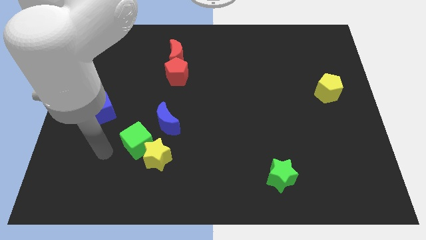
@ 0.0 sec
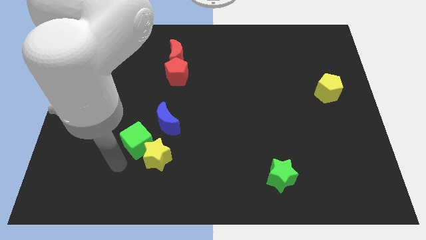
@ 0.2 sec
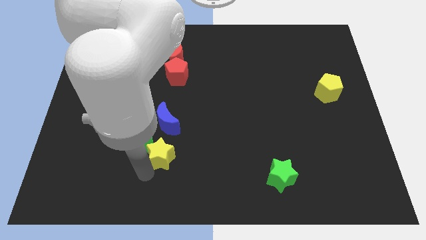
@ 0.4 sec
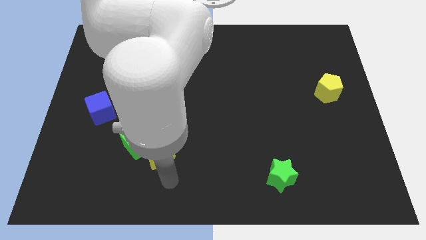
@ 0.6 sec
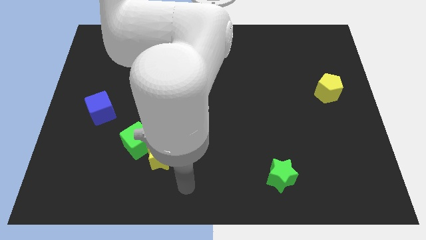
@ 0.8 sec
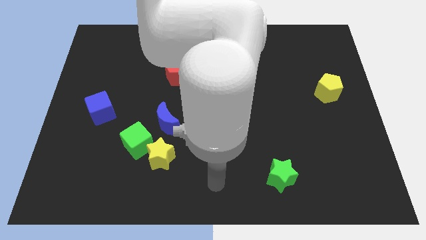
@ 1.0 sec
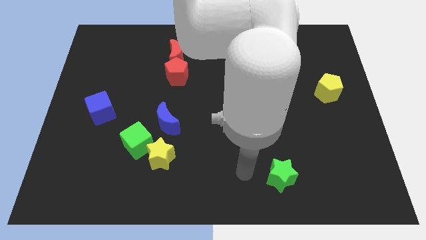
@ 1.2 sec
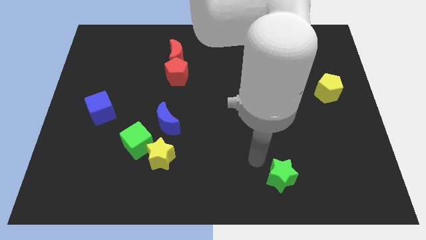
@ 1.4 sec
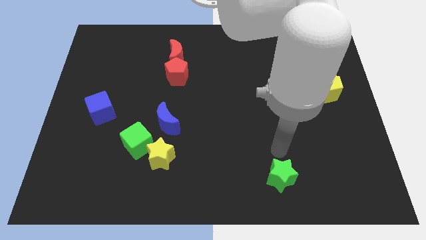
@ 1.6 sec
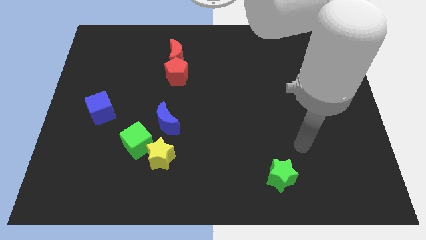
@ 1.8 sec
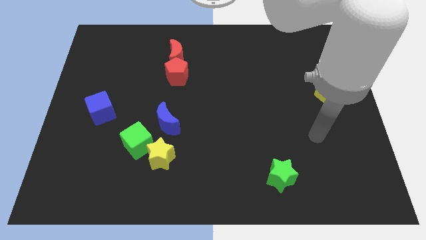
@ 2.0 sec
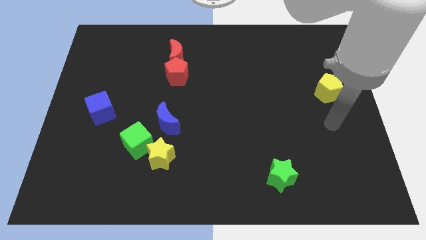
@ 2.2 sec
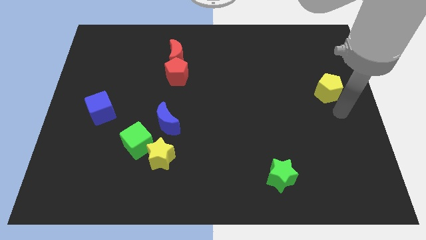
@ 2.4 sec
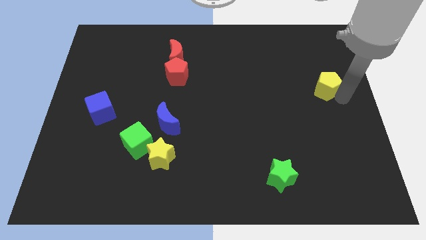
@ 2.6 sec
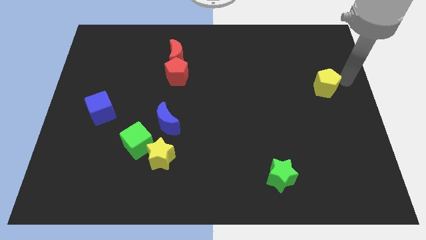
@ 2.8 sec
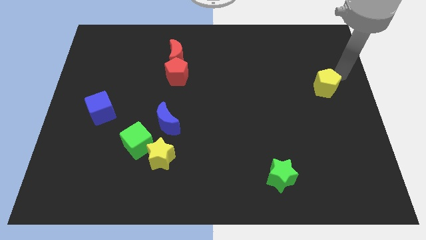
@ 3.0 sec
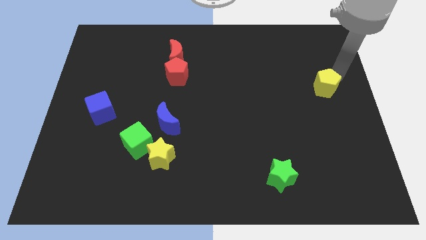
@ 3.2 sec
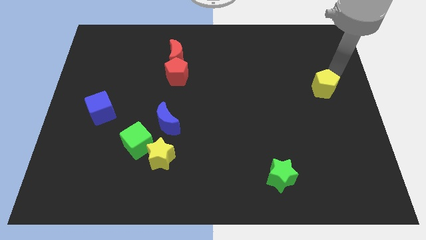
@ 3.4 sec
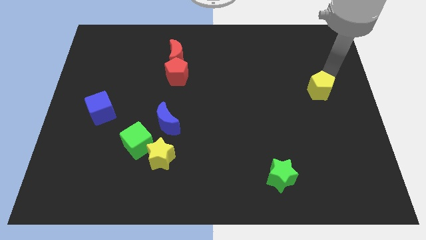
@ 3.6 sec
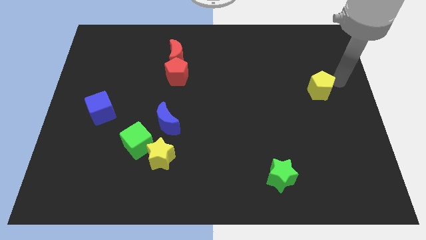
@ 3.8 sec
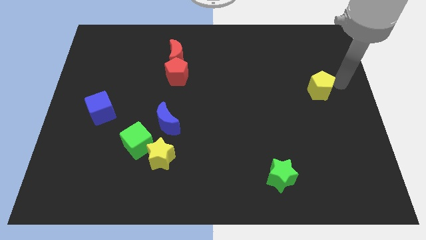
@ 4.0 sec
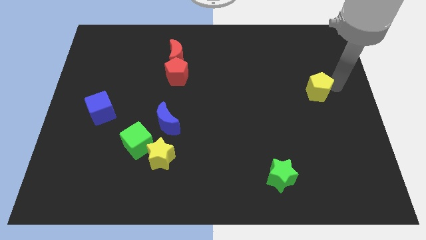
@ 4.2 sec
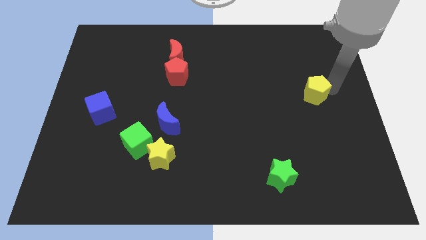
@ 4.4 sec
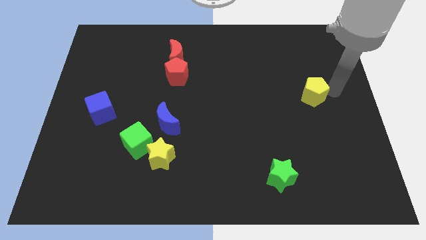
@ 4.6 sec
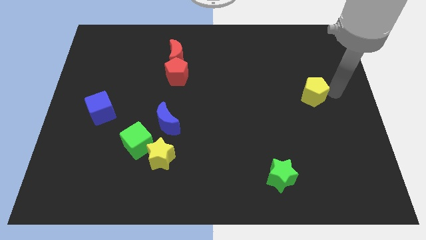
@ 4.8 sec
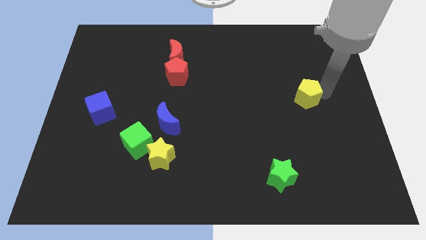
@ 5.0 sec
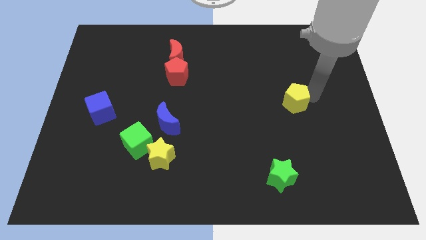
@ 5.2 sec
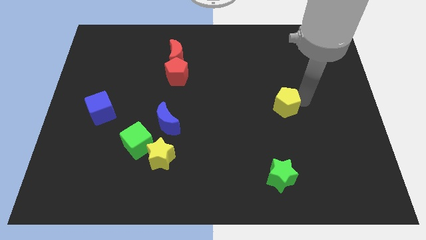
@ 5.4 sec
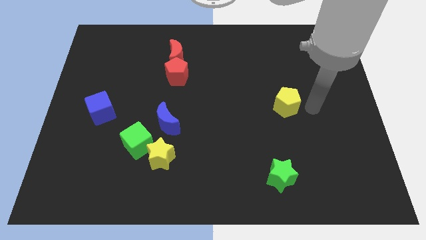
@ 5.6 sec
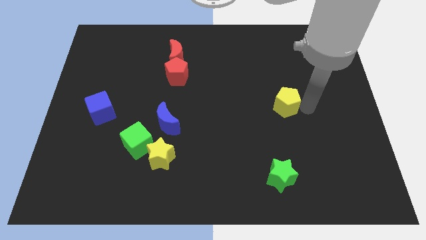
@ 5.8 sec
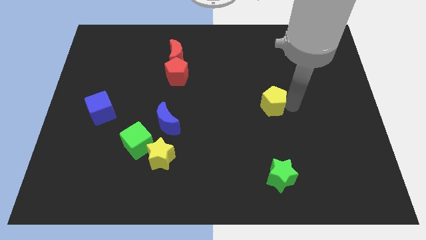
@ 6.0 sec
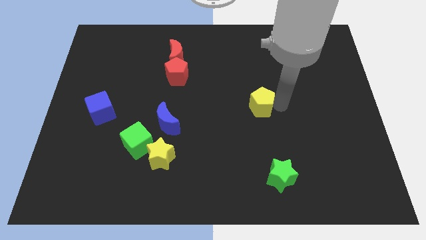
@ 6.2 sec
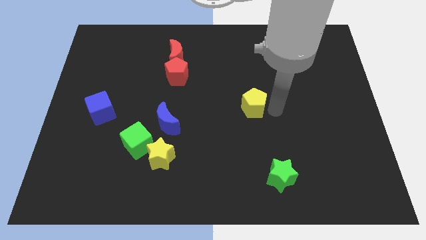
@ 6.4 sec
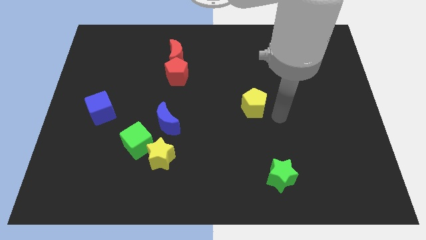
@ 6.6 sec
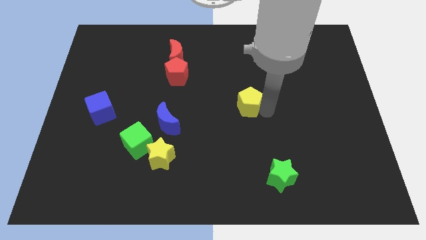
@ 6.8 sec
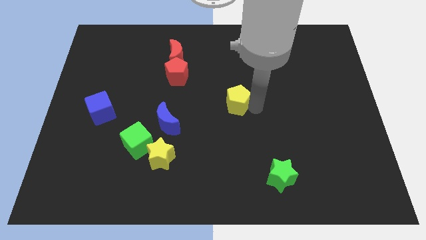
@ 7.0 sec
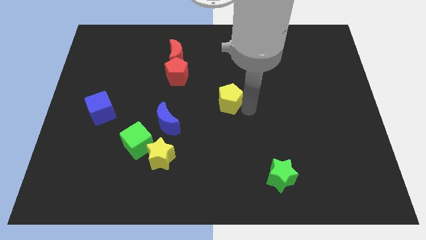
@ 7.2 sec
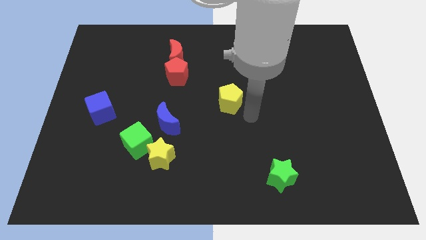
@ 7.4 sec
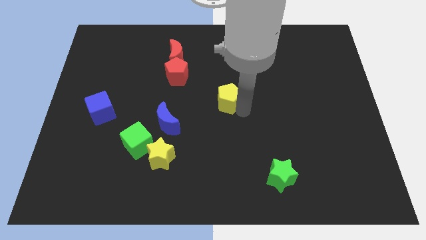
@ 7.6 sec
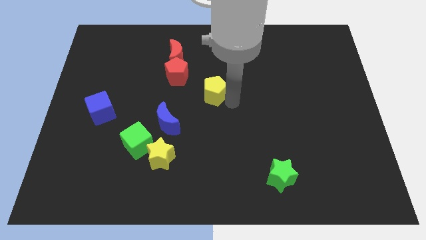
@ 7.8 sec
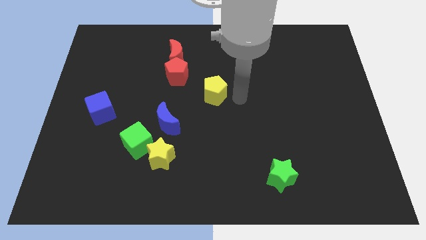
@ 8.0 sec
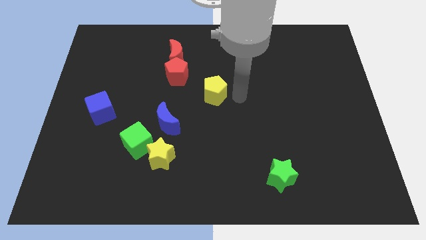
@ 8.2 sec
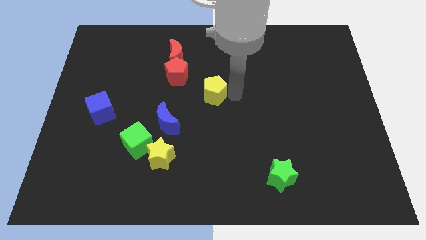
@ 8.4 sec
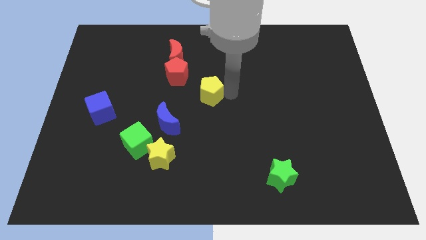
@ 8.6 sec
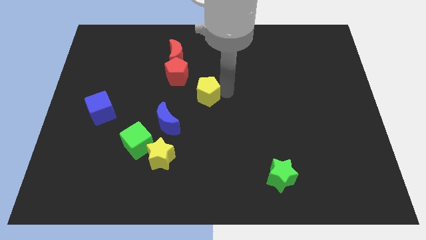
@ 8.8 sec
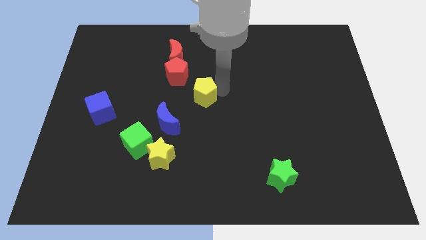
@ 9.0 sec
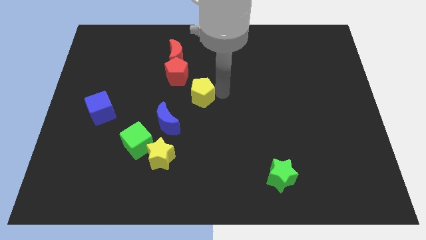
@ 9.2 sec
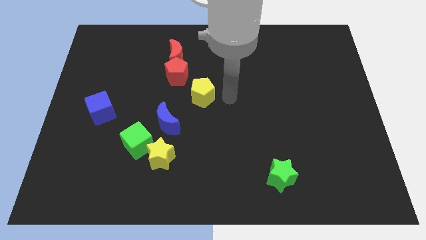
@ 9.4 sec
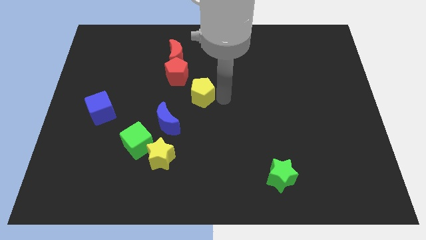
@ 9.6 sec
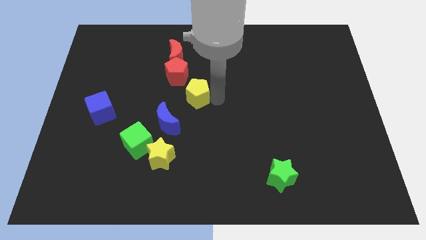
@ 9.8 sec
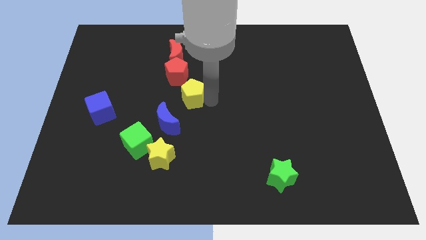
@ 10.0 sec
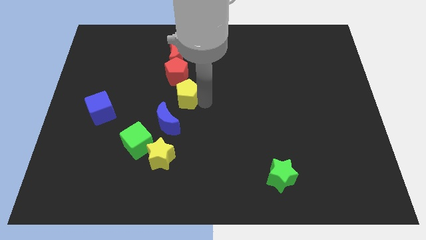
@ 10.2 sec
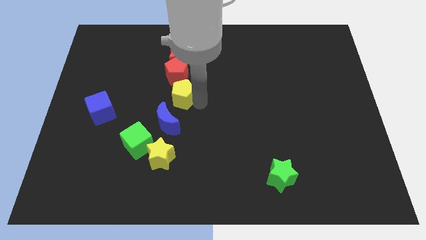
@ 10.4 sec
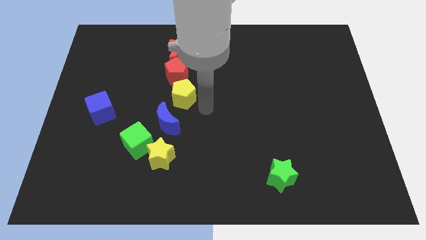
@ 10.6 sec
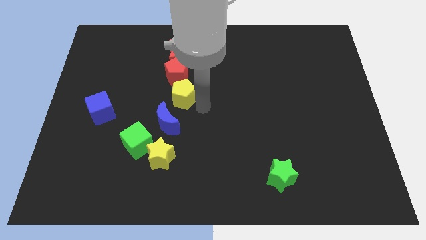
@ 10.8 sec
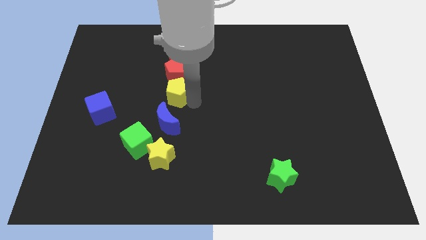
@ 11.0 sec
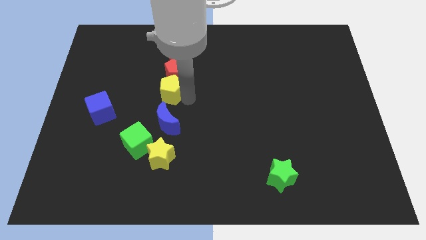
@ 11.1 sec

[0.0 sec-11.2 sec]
slide the yellow pentagon to the bottom left side of the red pentagon
